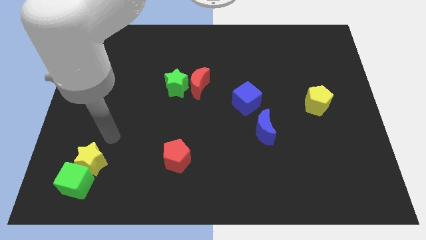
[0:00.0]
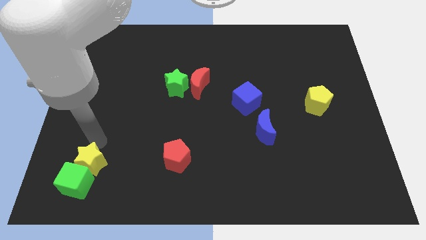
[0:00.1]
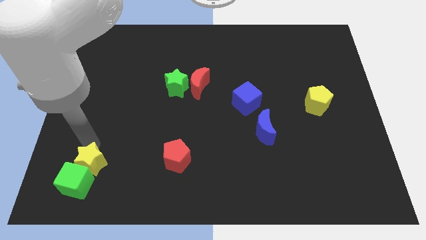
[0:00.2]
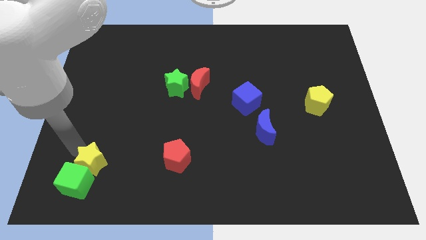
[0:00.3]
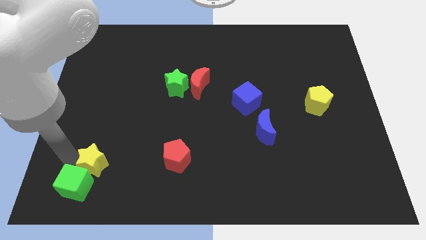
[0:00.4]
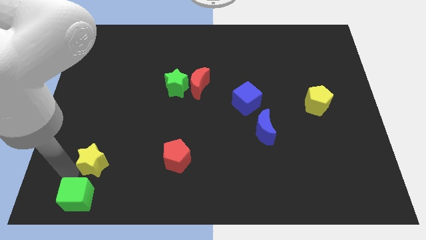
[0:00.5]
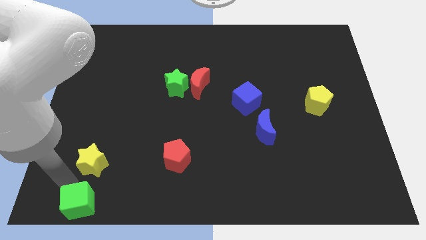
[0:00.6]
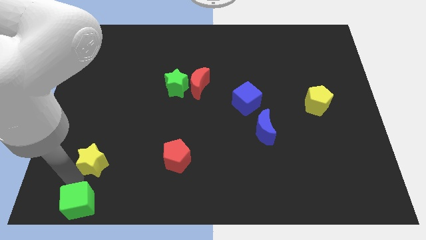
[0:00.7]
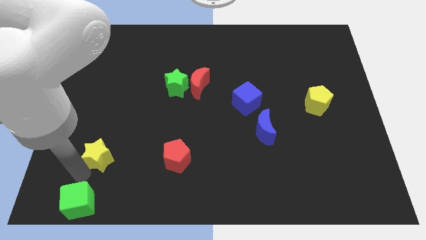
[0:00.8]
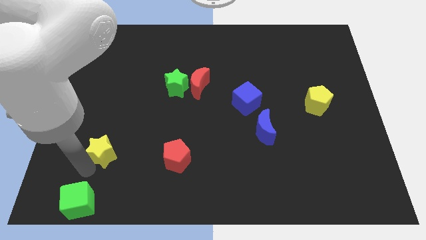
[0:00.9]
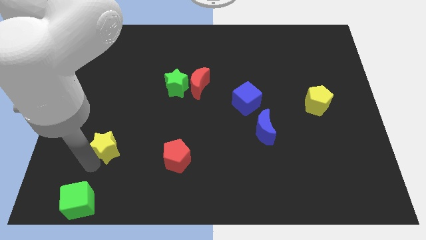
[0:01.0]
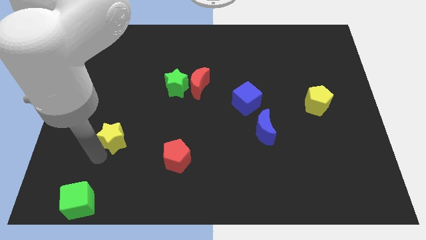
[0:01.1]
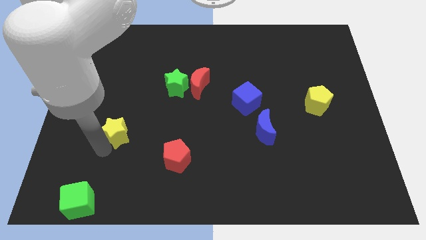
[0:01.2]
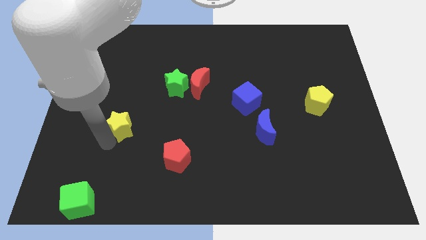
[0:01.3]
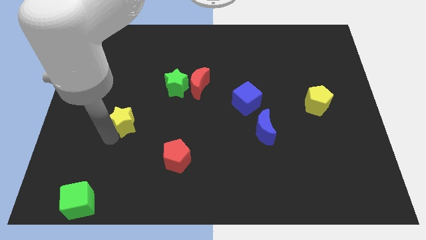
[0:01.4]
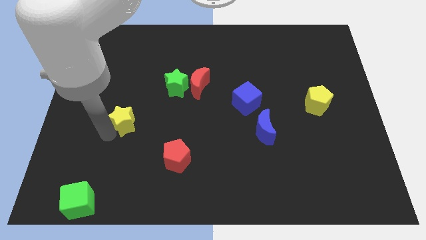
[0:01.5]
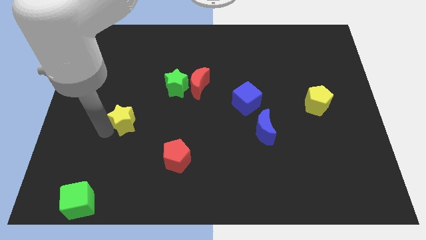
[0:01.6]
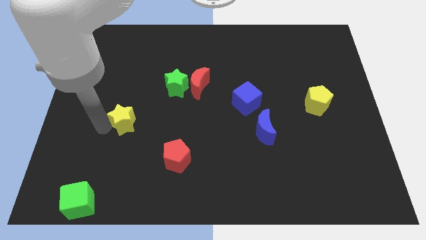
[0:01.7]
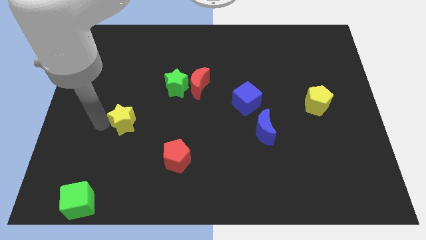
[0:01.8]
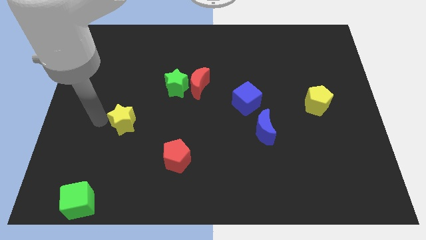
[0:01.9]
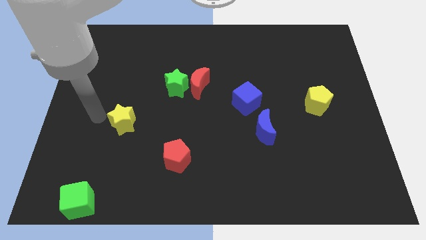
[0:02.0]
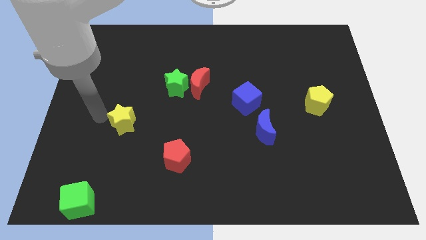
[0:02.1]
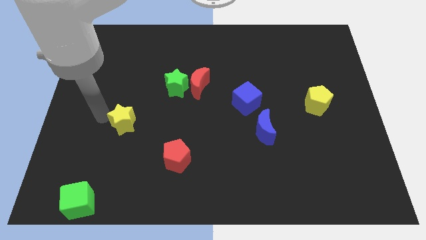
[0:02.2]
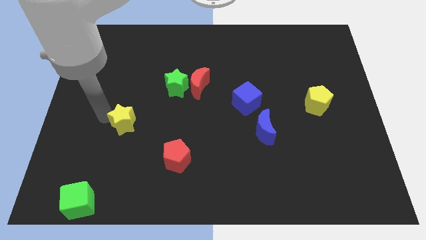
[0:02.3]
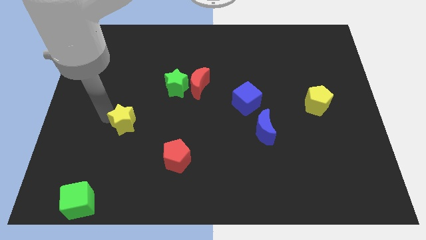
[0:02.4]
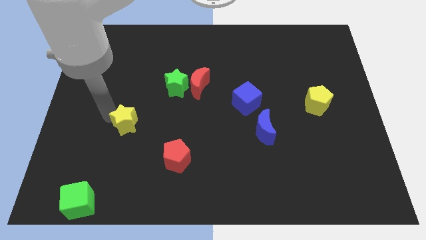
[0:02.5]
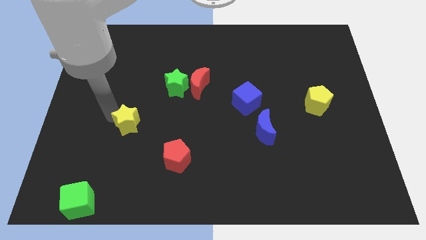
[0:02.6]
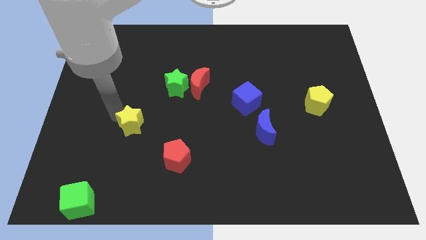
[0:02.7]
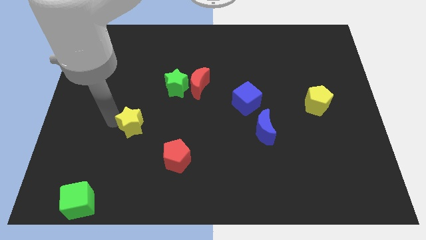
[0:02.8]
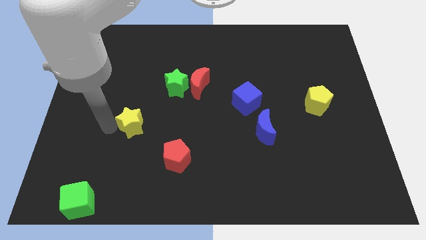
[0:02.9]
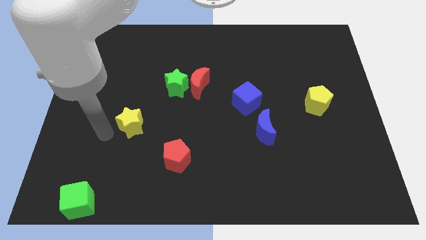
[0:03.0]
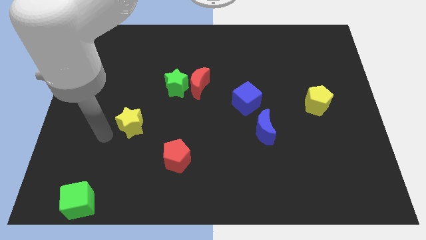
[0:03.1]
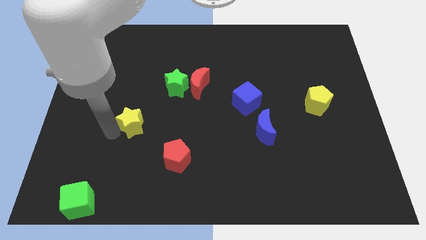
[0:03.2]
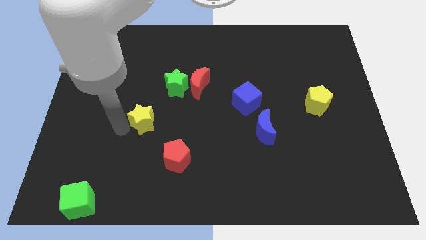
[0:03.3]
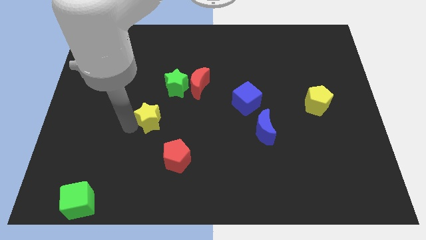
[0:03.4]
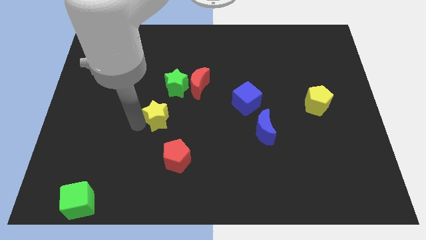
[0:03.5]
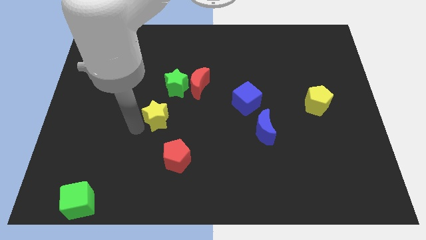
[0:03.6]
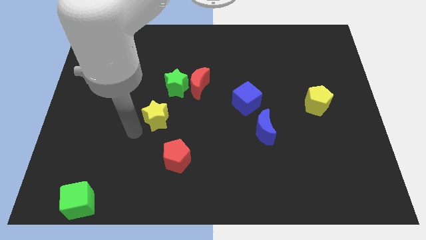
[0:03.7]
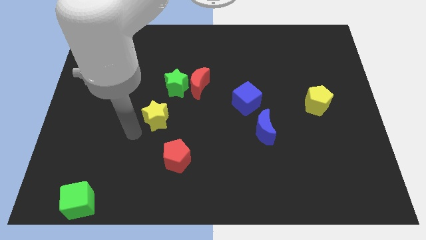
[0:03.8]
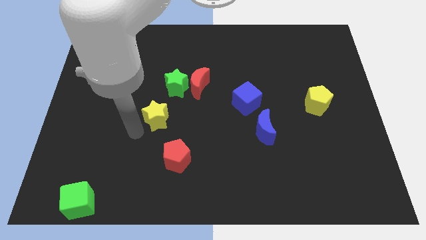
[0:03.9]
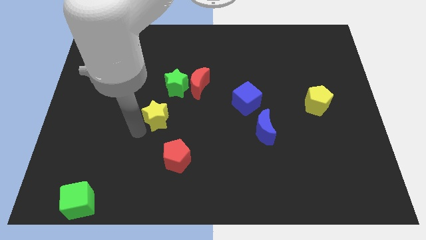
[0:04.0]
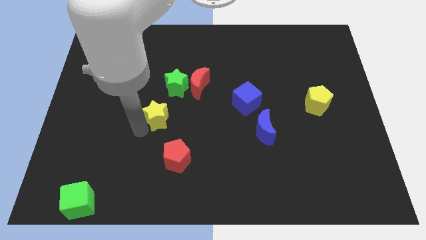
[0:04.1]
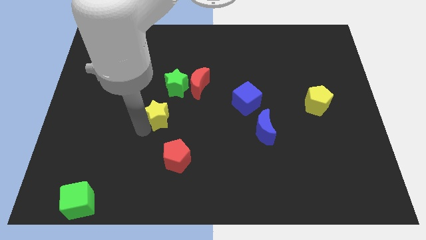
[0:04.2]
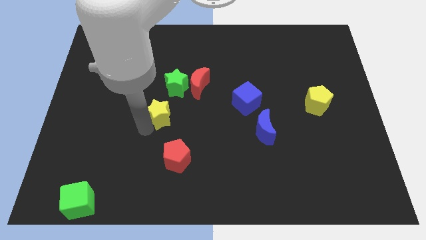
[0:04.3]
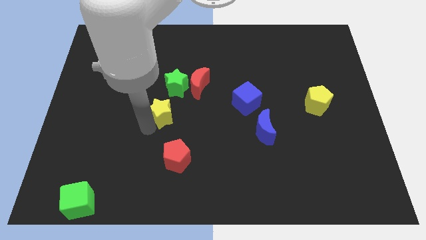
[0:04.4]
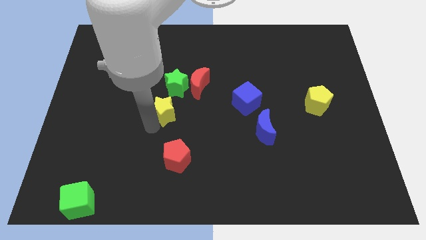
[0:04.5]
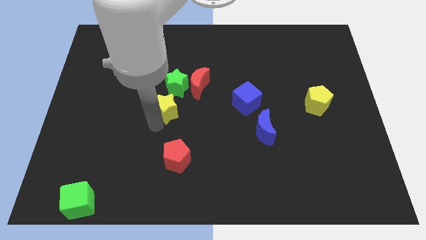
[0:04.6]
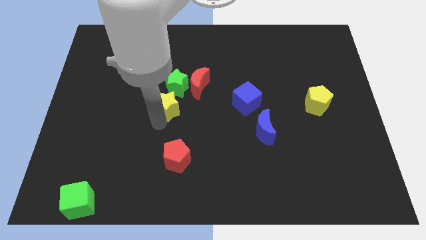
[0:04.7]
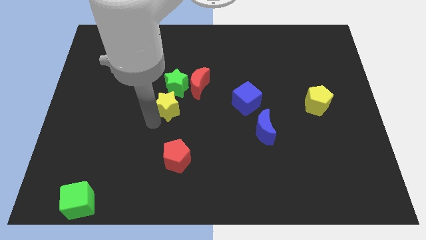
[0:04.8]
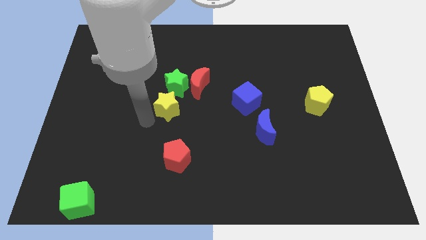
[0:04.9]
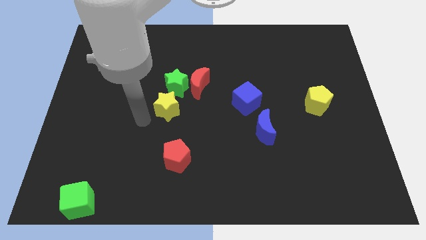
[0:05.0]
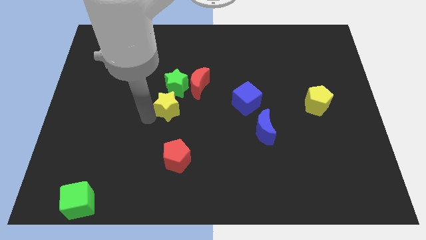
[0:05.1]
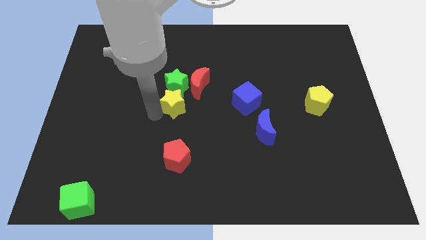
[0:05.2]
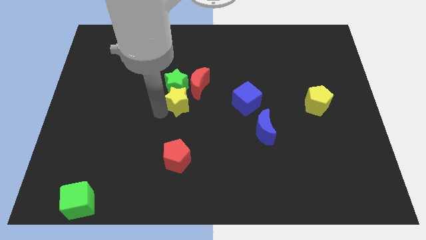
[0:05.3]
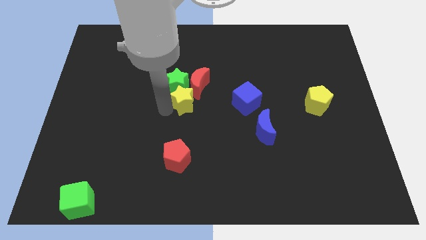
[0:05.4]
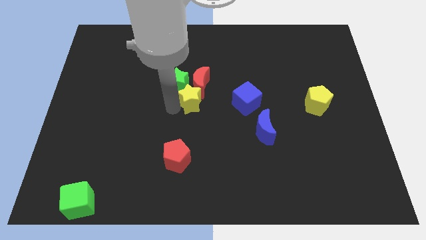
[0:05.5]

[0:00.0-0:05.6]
put the yellow star to the red moon
